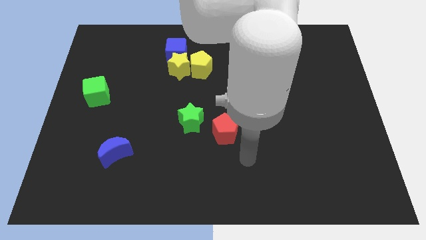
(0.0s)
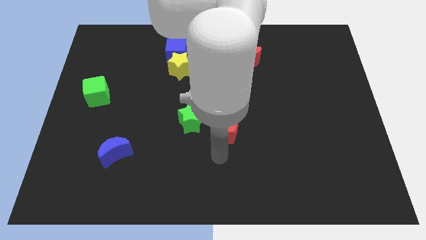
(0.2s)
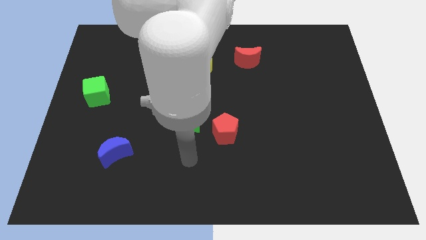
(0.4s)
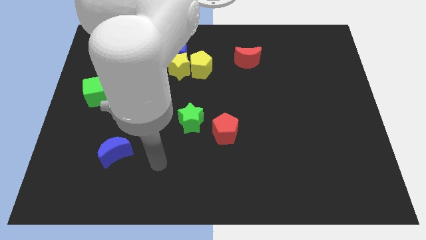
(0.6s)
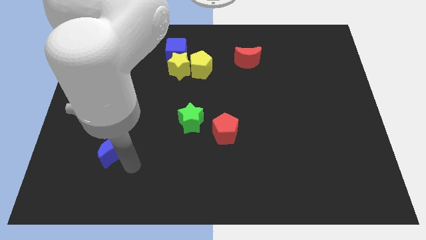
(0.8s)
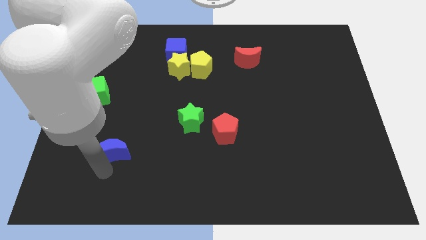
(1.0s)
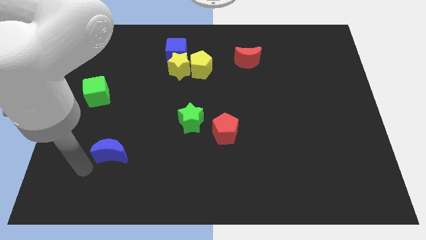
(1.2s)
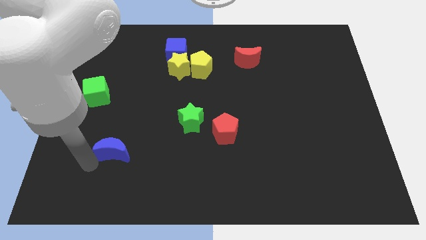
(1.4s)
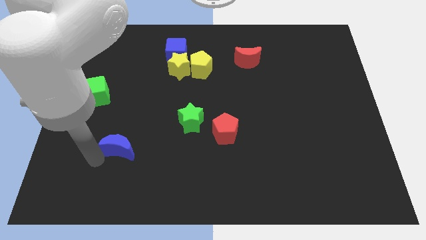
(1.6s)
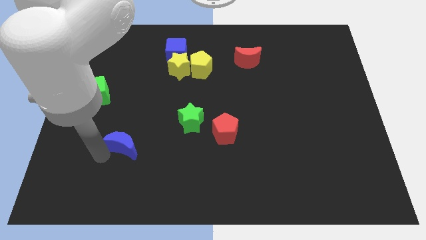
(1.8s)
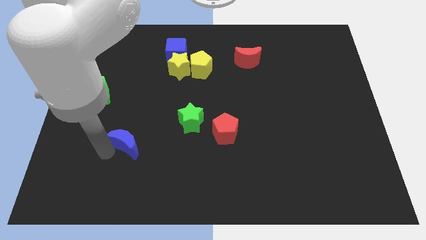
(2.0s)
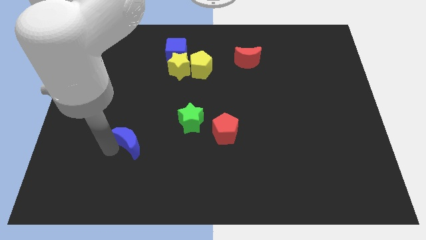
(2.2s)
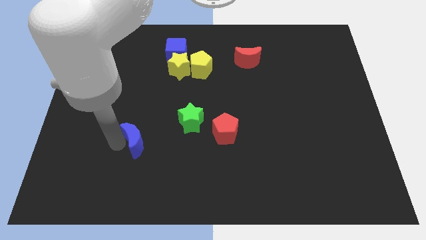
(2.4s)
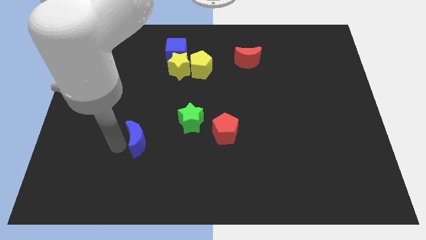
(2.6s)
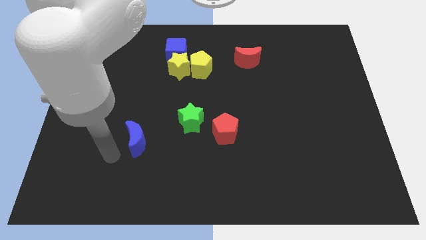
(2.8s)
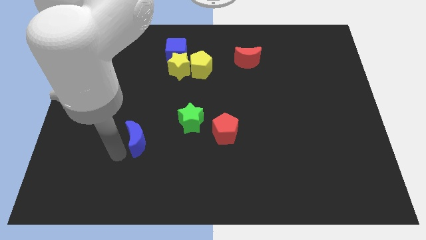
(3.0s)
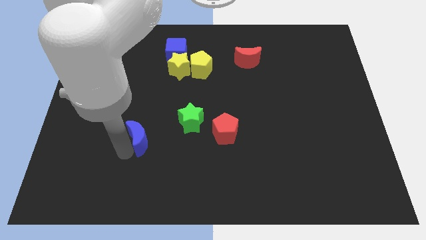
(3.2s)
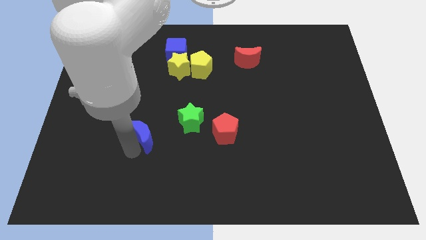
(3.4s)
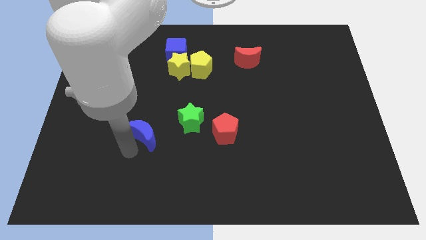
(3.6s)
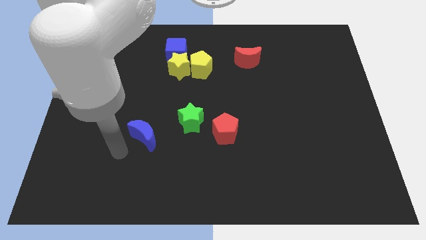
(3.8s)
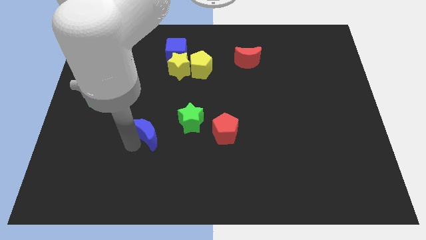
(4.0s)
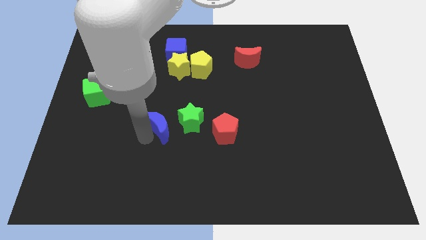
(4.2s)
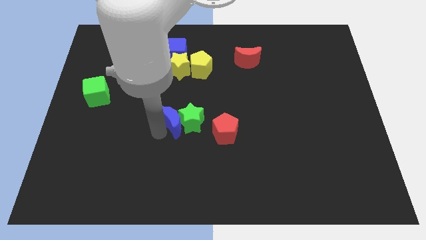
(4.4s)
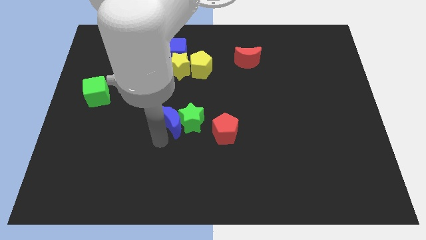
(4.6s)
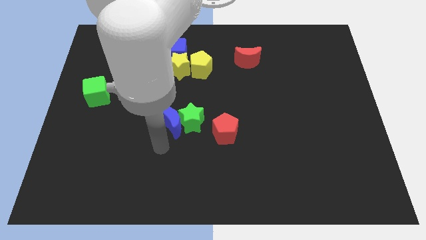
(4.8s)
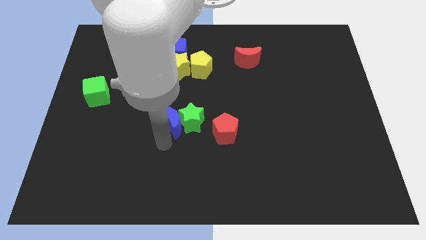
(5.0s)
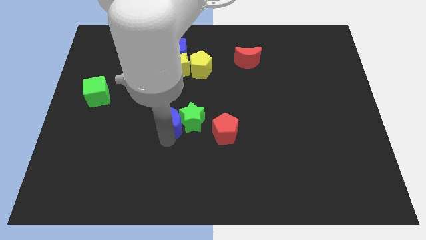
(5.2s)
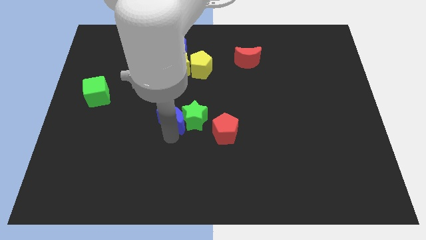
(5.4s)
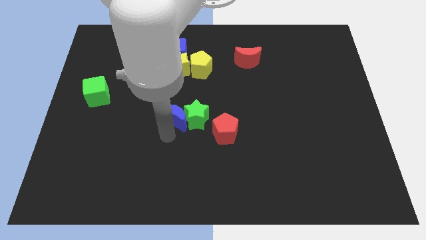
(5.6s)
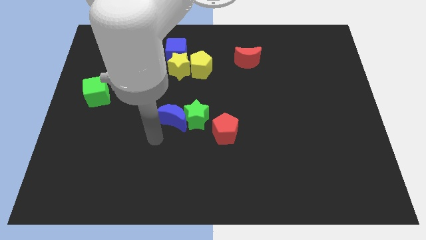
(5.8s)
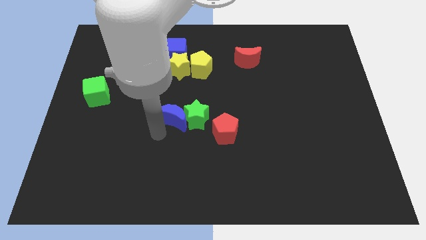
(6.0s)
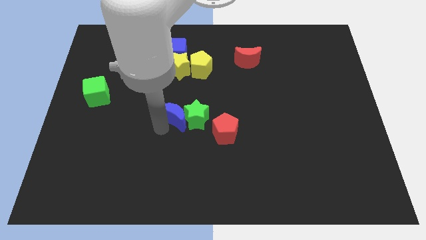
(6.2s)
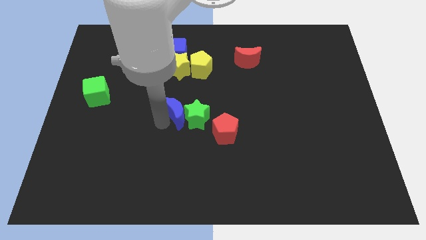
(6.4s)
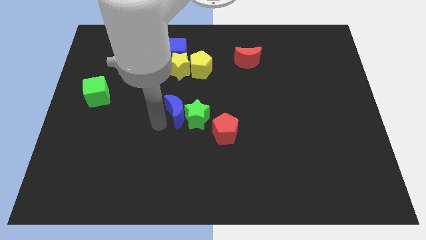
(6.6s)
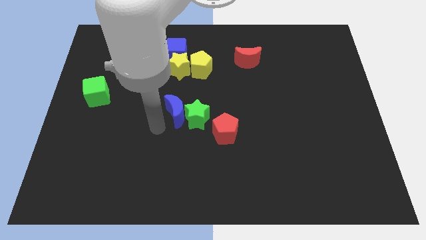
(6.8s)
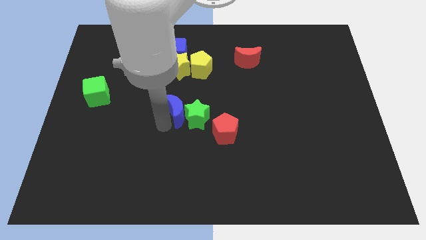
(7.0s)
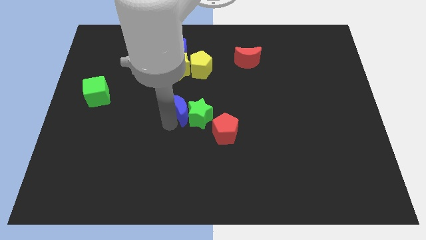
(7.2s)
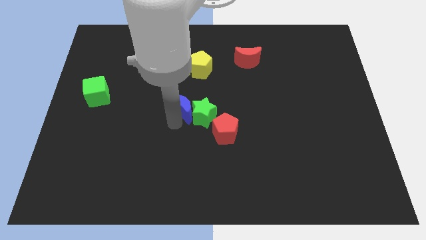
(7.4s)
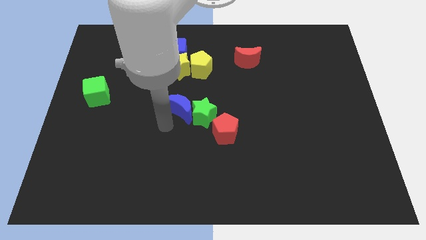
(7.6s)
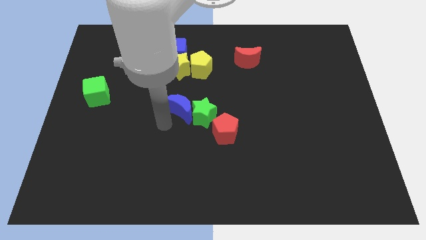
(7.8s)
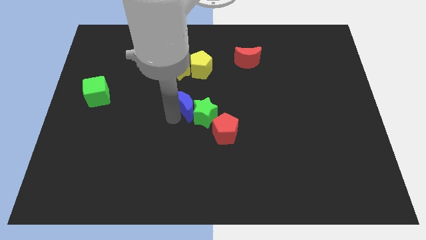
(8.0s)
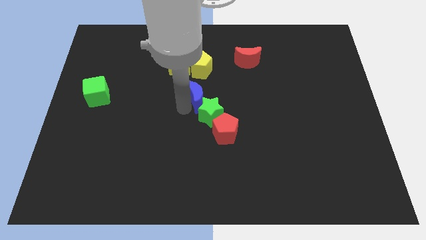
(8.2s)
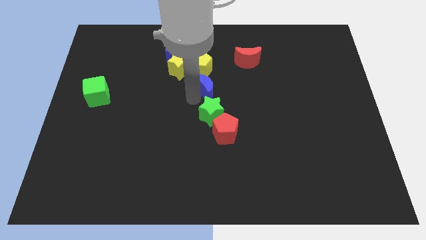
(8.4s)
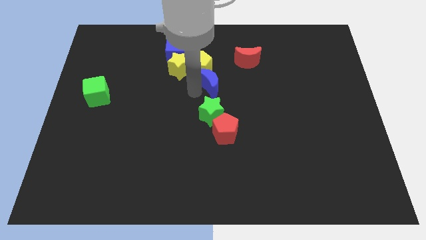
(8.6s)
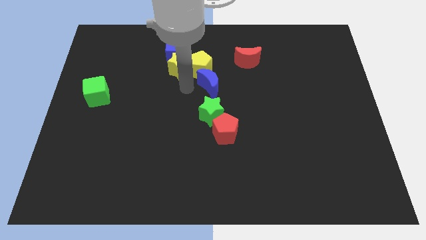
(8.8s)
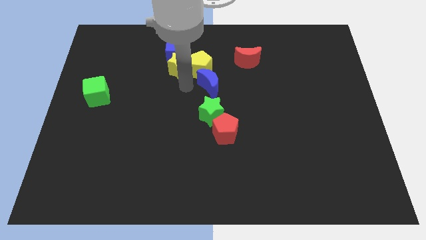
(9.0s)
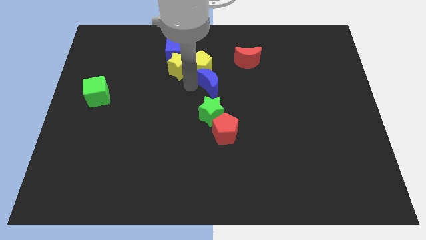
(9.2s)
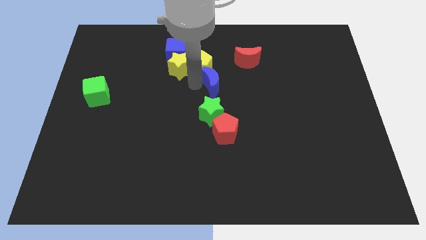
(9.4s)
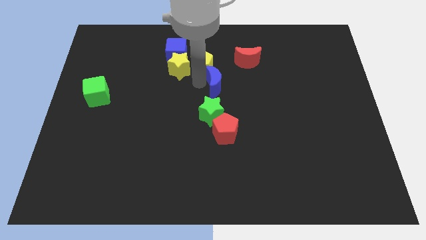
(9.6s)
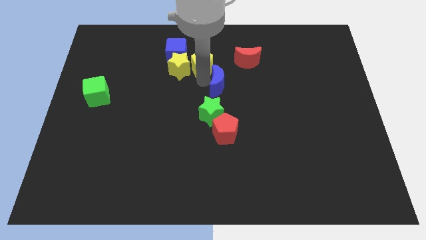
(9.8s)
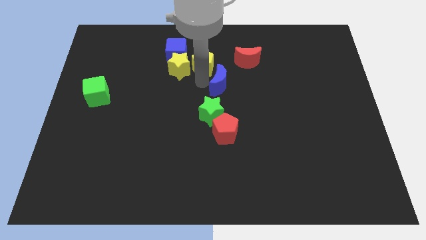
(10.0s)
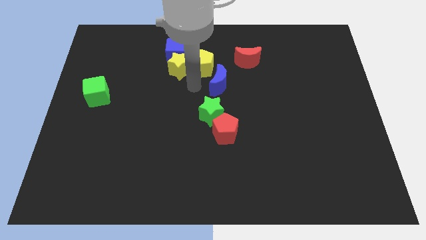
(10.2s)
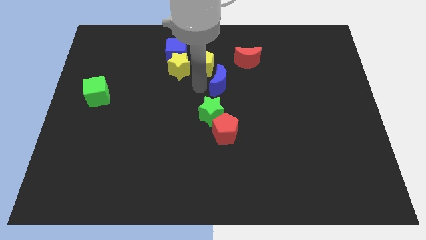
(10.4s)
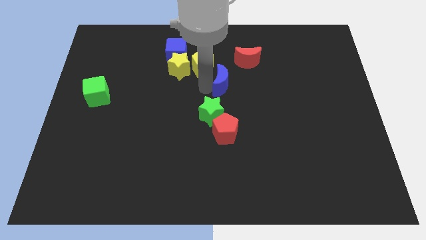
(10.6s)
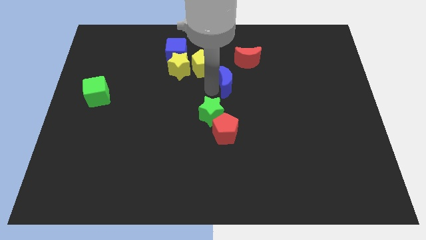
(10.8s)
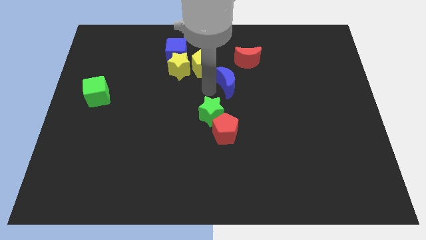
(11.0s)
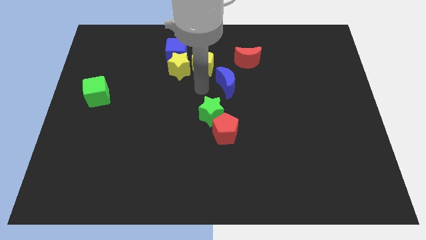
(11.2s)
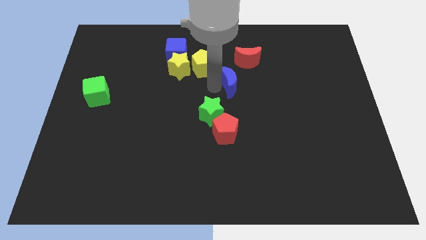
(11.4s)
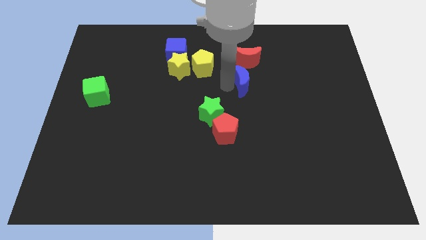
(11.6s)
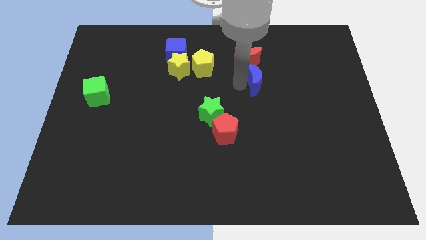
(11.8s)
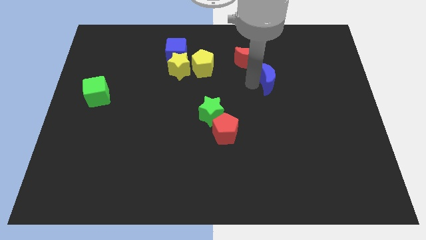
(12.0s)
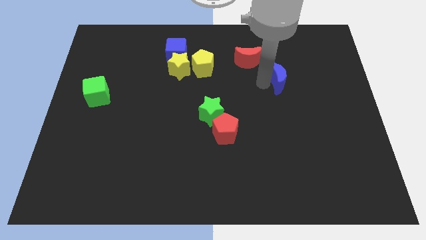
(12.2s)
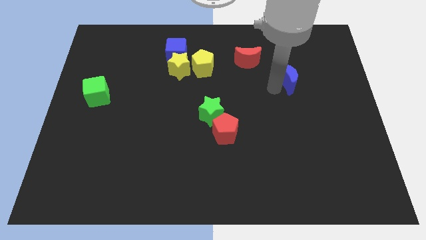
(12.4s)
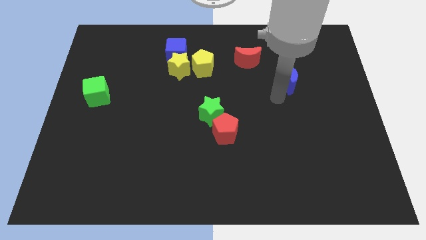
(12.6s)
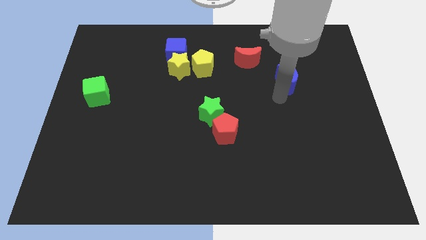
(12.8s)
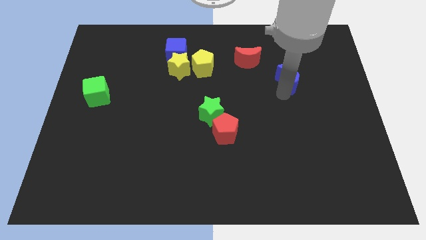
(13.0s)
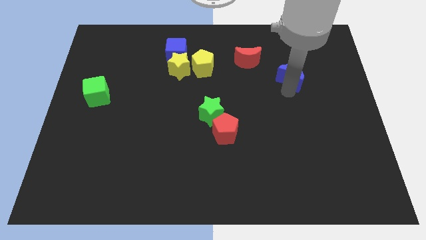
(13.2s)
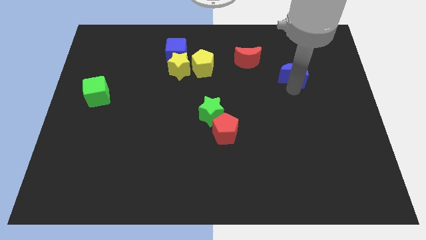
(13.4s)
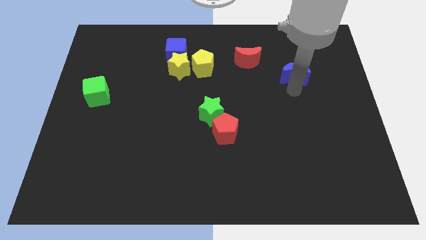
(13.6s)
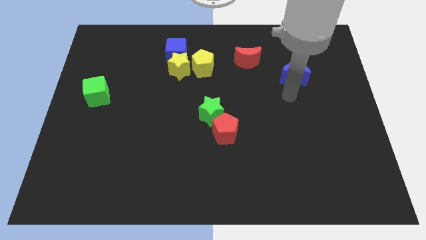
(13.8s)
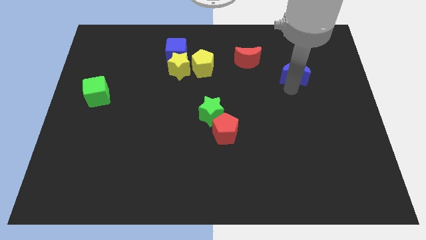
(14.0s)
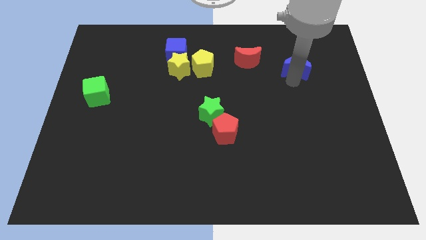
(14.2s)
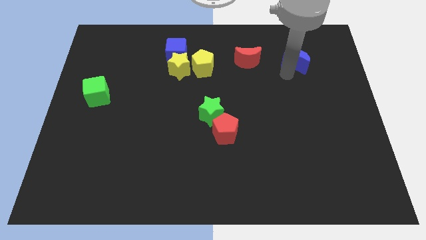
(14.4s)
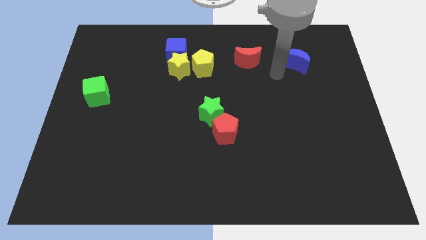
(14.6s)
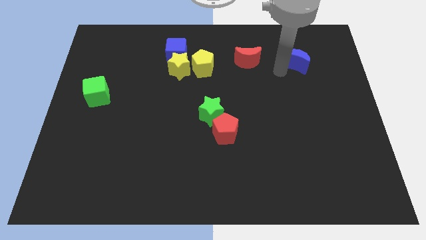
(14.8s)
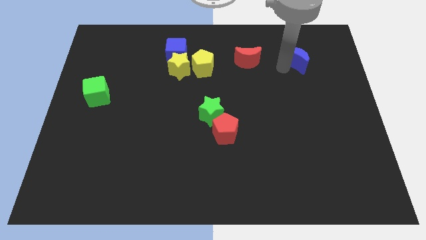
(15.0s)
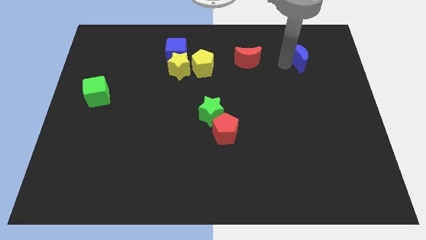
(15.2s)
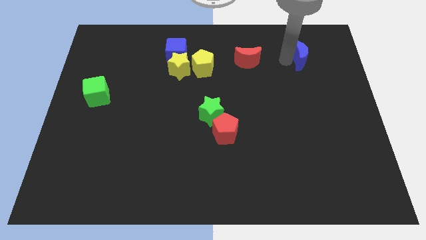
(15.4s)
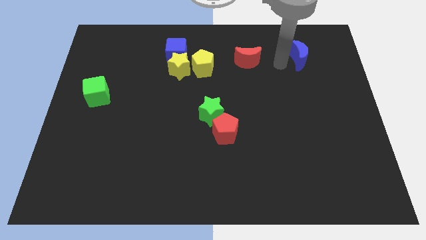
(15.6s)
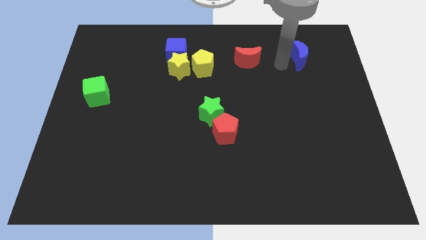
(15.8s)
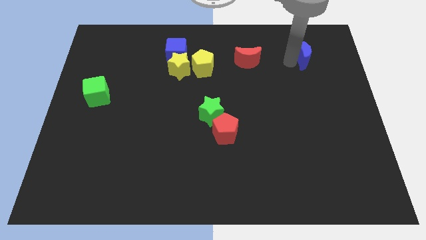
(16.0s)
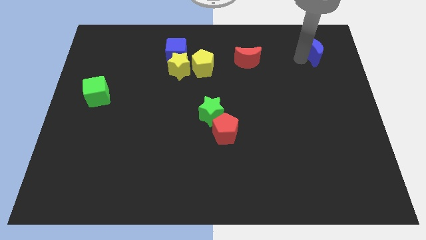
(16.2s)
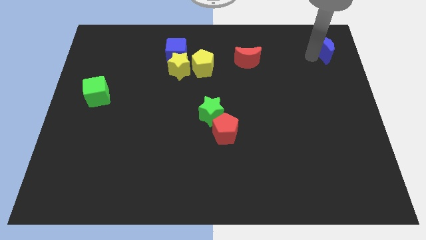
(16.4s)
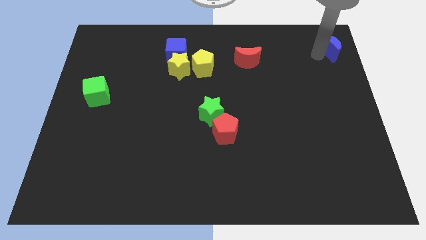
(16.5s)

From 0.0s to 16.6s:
push the blue moon to the upper right corner
